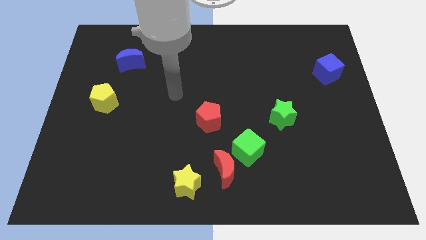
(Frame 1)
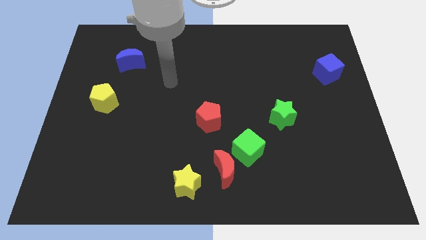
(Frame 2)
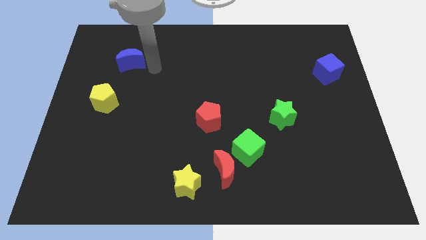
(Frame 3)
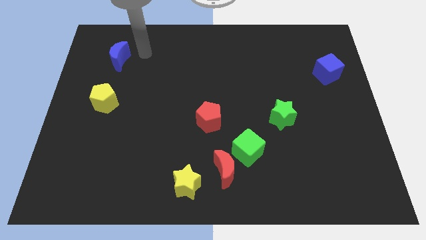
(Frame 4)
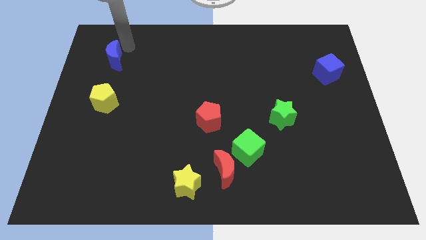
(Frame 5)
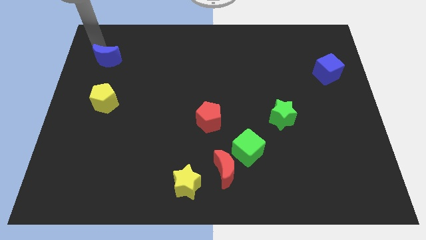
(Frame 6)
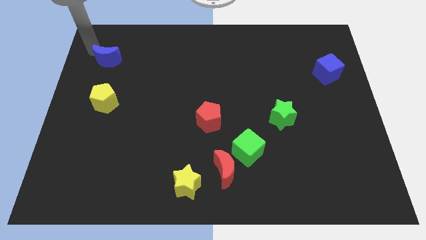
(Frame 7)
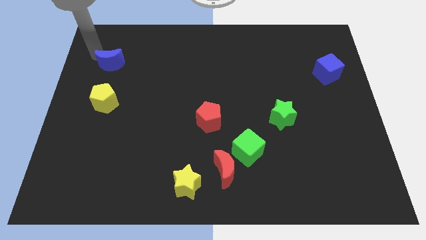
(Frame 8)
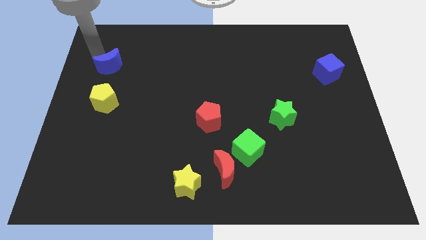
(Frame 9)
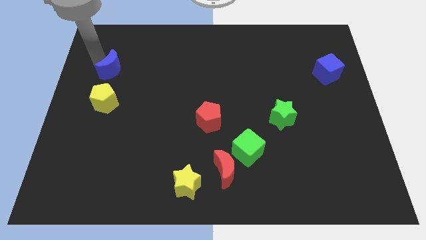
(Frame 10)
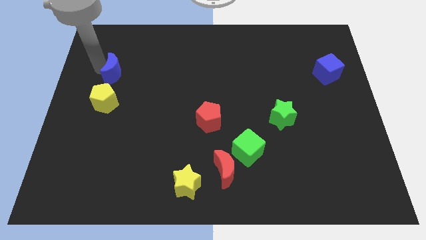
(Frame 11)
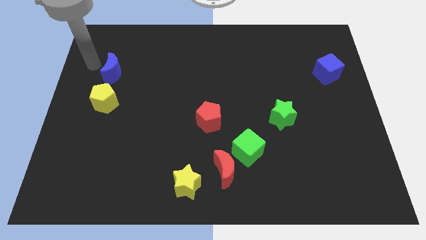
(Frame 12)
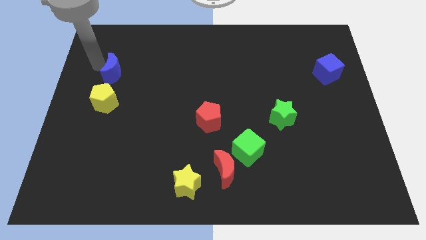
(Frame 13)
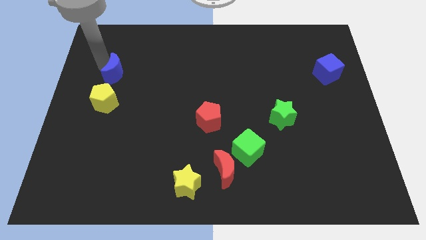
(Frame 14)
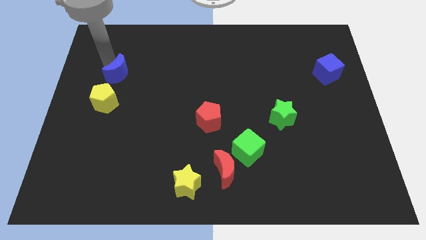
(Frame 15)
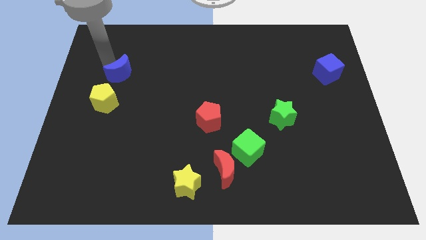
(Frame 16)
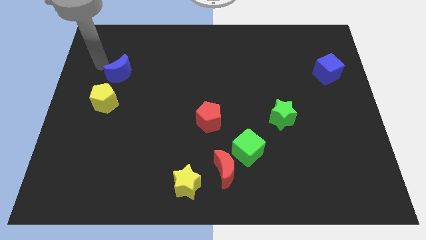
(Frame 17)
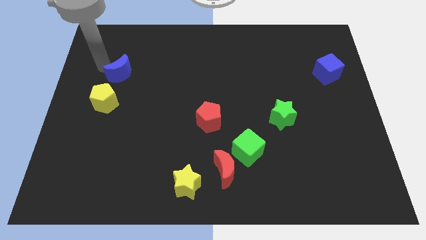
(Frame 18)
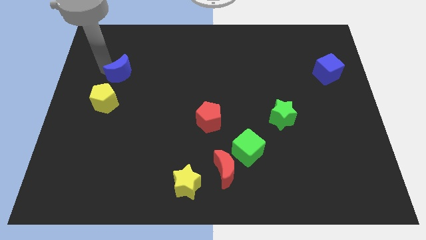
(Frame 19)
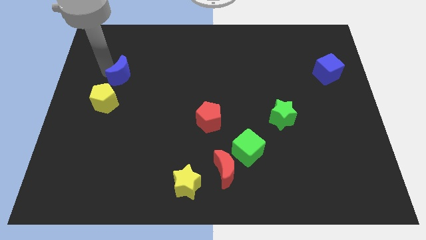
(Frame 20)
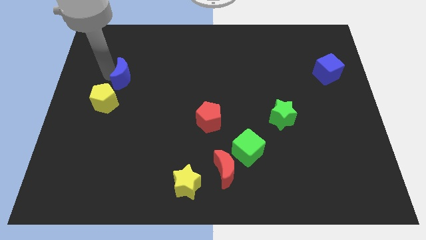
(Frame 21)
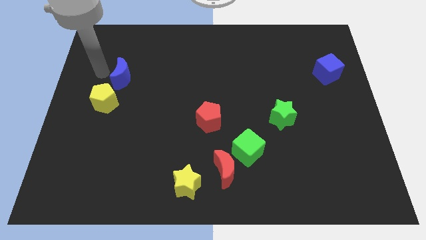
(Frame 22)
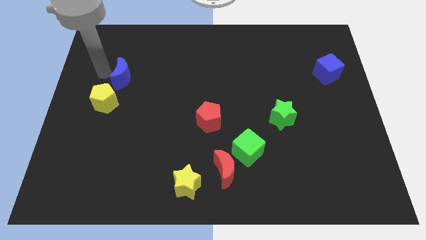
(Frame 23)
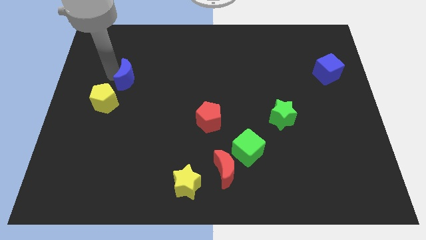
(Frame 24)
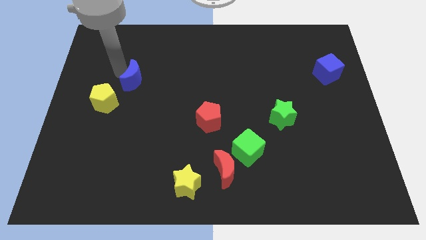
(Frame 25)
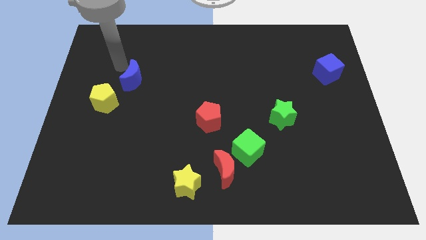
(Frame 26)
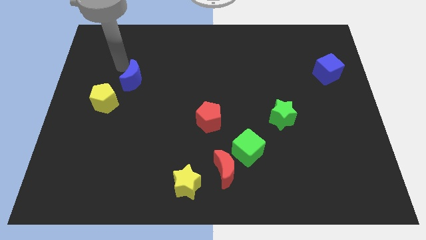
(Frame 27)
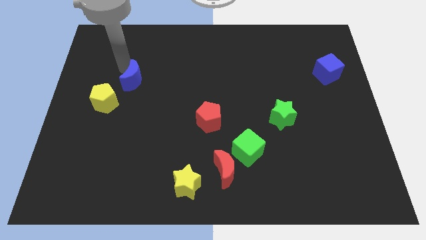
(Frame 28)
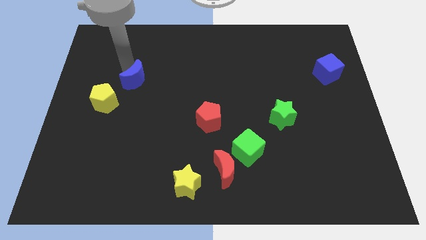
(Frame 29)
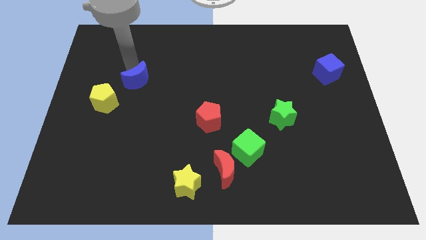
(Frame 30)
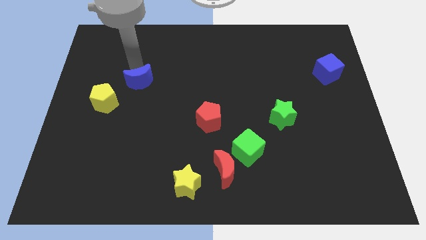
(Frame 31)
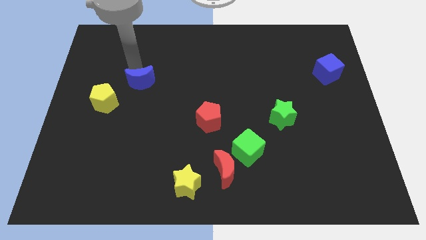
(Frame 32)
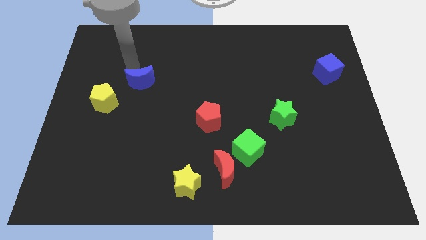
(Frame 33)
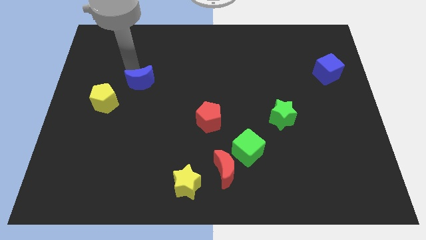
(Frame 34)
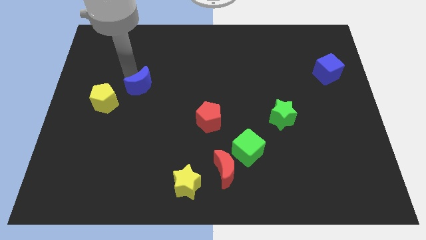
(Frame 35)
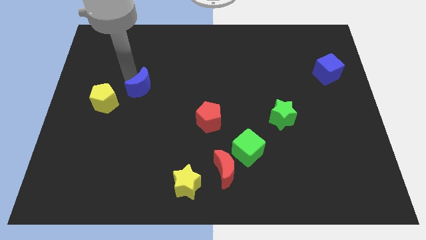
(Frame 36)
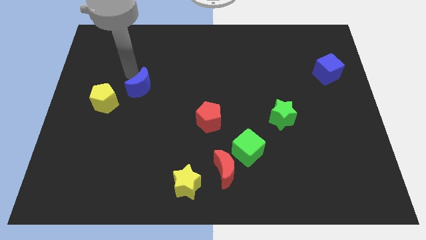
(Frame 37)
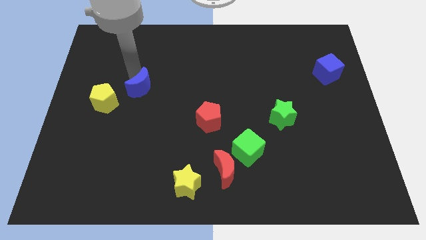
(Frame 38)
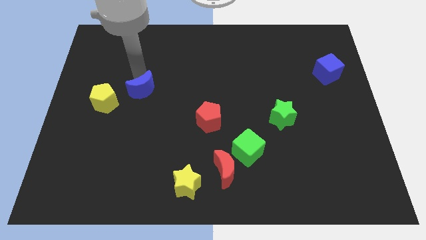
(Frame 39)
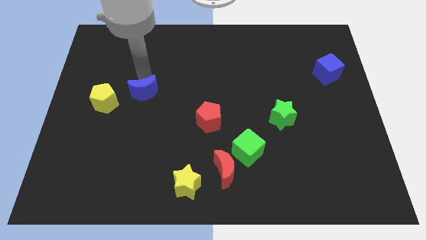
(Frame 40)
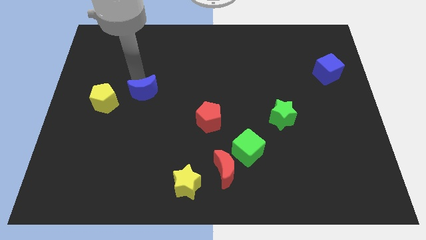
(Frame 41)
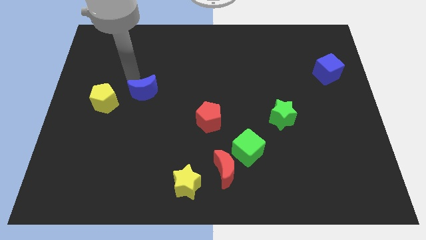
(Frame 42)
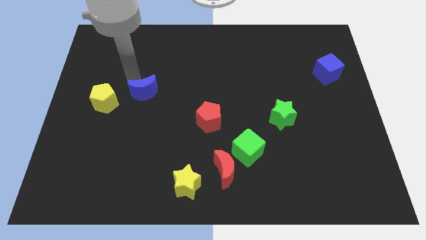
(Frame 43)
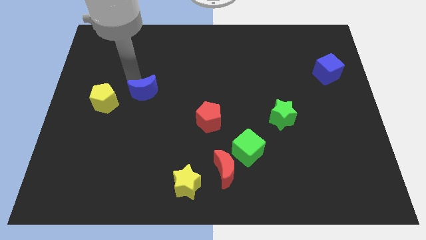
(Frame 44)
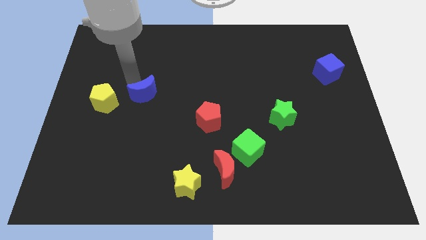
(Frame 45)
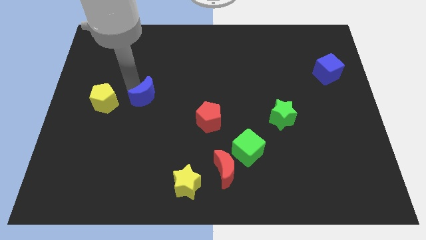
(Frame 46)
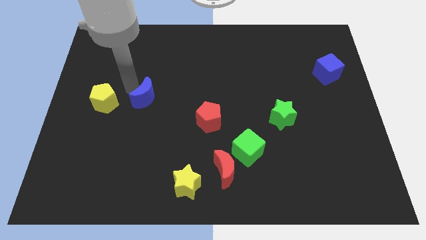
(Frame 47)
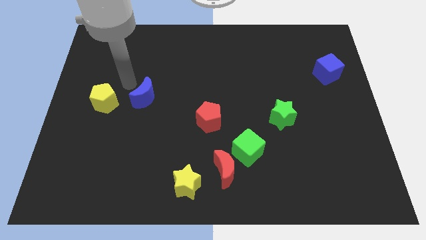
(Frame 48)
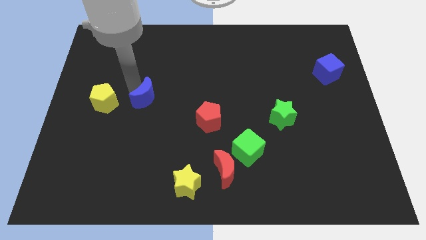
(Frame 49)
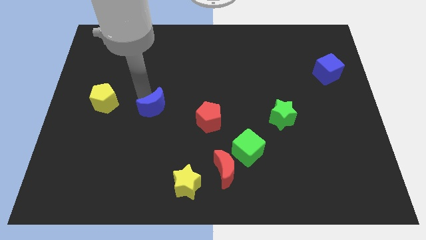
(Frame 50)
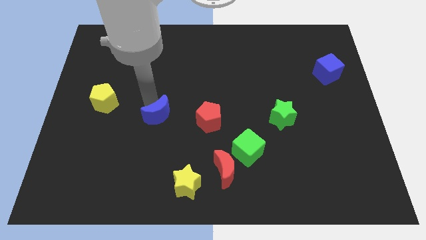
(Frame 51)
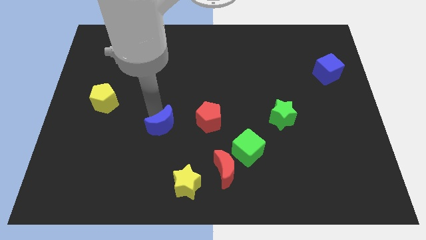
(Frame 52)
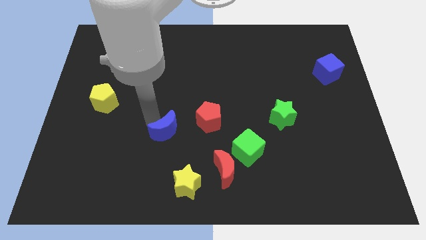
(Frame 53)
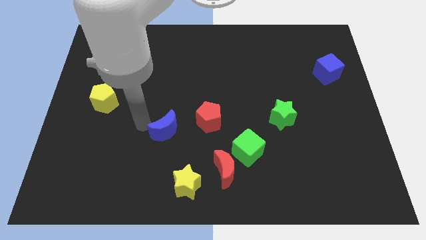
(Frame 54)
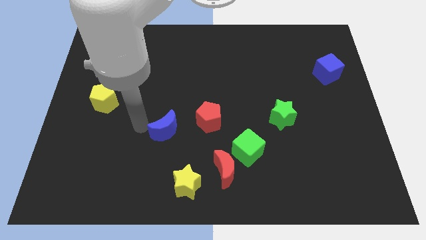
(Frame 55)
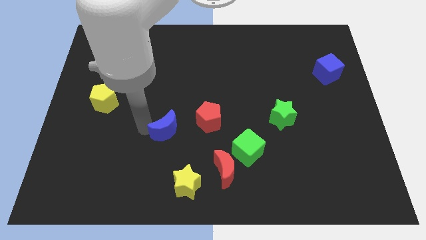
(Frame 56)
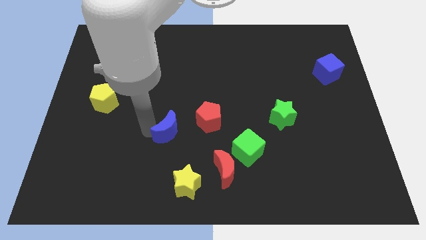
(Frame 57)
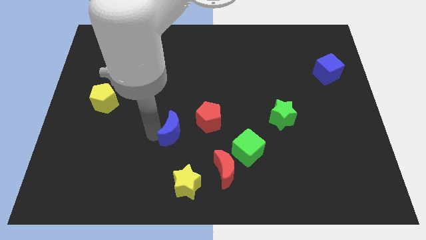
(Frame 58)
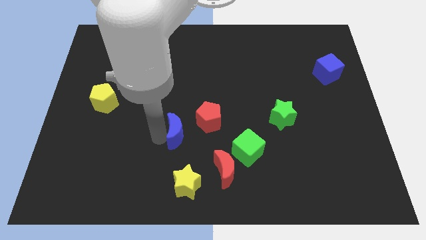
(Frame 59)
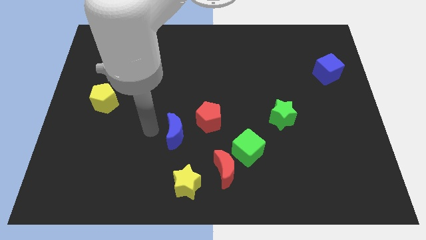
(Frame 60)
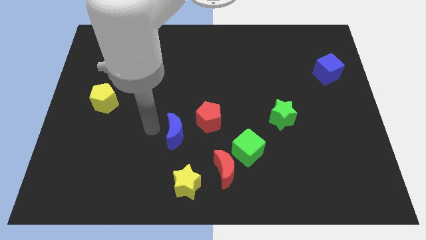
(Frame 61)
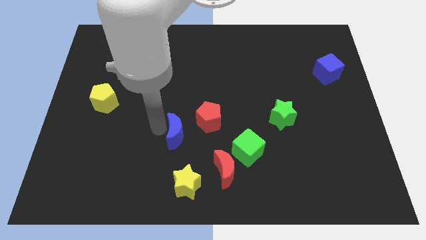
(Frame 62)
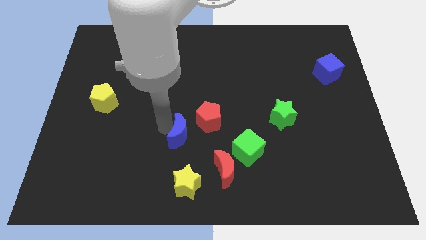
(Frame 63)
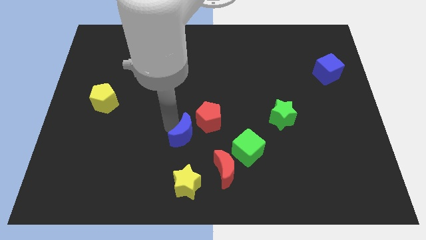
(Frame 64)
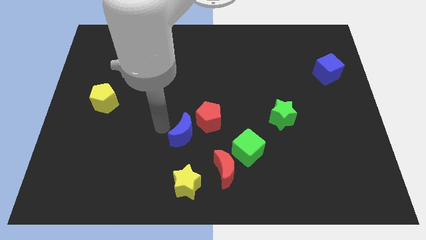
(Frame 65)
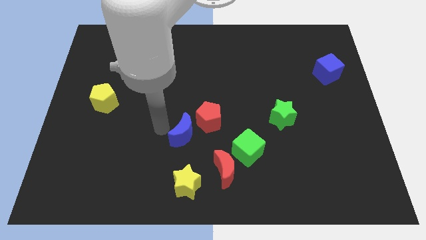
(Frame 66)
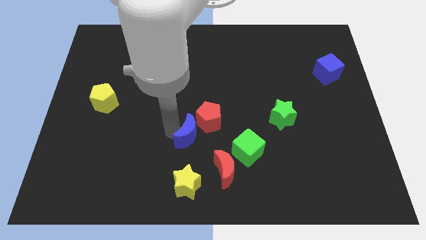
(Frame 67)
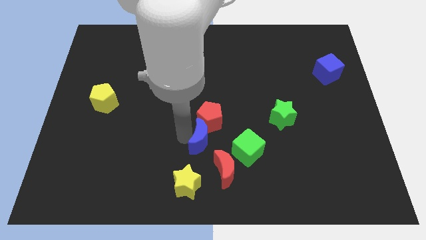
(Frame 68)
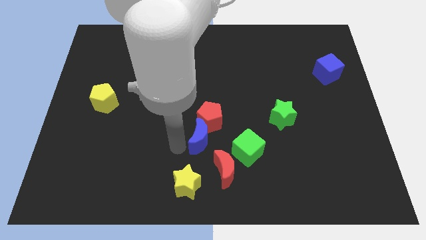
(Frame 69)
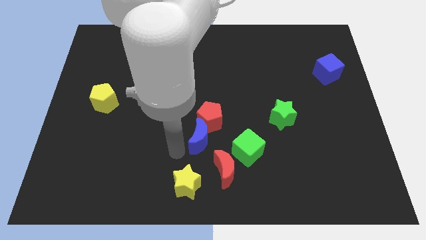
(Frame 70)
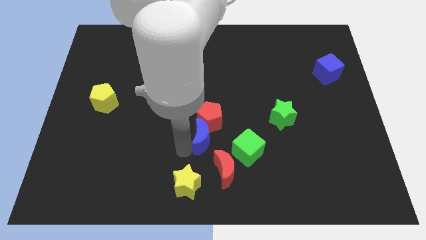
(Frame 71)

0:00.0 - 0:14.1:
push the blue moon above the red moon
